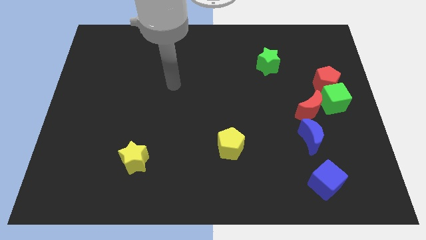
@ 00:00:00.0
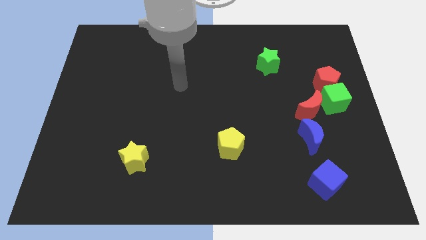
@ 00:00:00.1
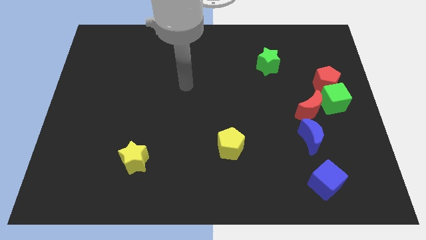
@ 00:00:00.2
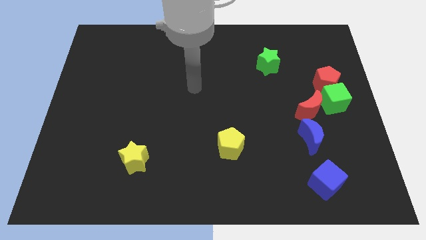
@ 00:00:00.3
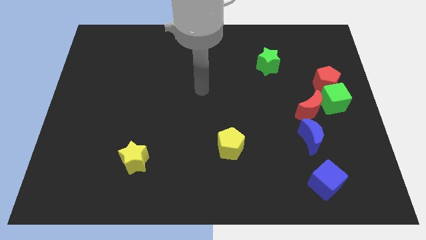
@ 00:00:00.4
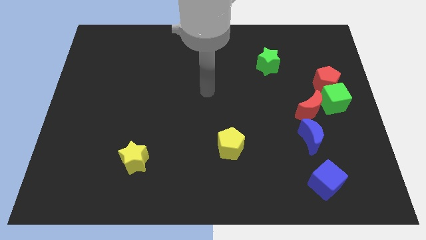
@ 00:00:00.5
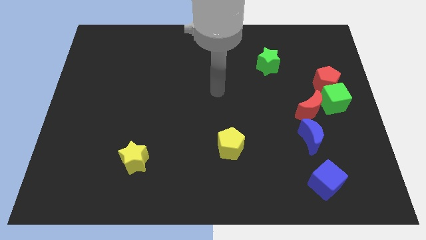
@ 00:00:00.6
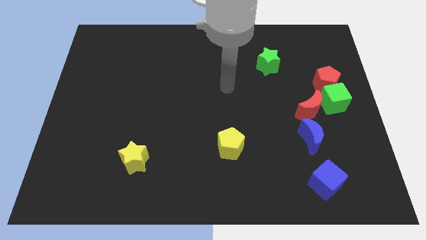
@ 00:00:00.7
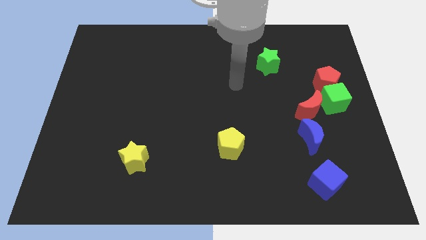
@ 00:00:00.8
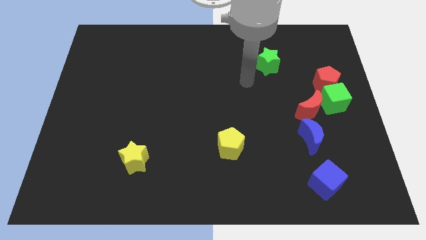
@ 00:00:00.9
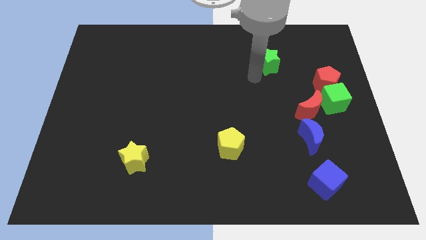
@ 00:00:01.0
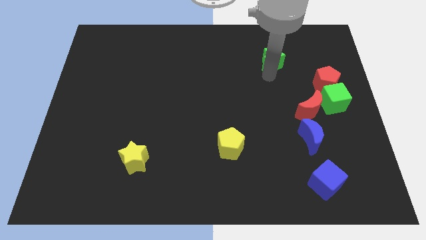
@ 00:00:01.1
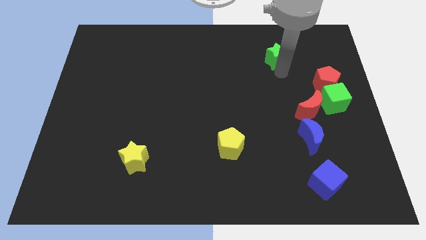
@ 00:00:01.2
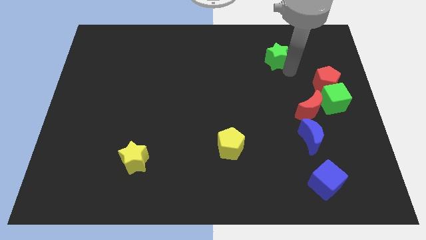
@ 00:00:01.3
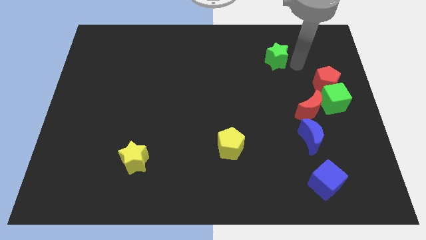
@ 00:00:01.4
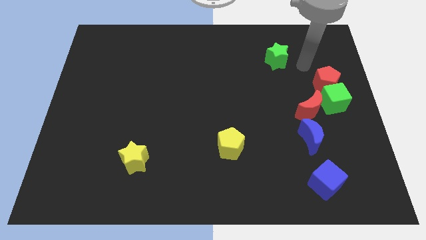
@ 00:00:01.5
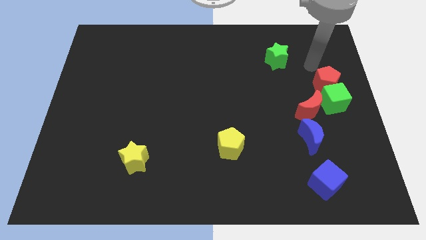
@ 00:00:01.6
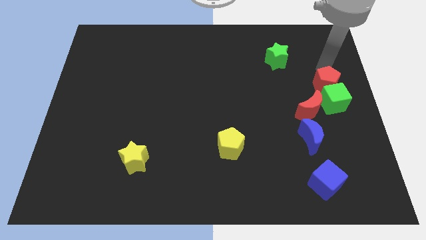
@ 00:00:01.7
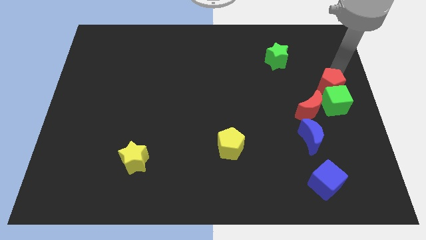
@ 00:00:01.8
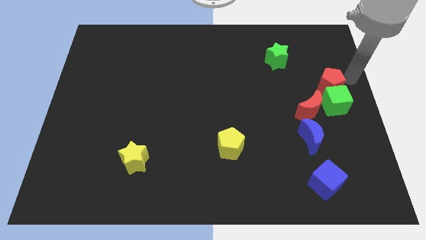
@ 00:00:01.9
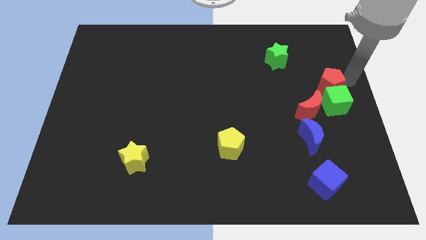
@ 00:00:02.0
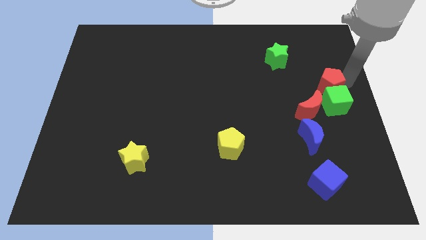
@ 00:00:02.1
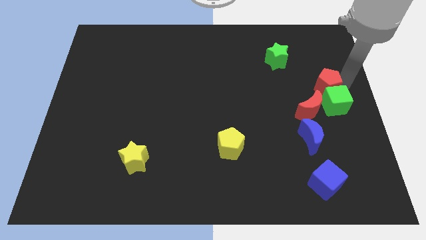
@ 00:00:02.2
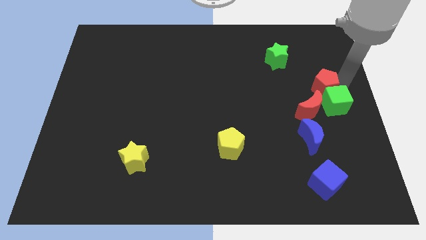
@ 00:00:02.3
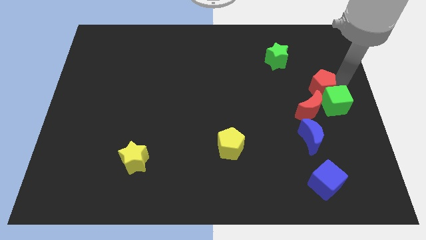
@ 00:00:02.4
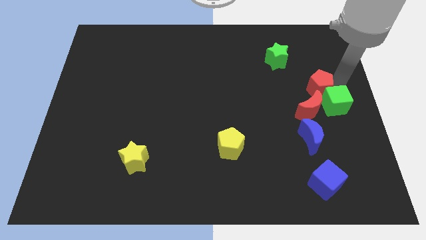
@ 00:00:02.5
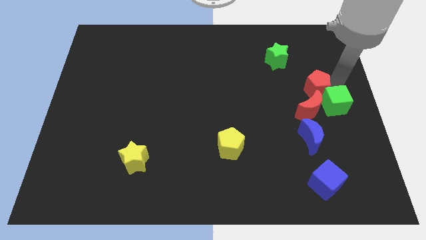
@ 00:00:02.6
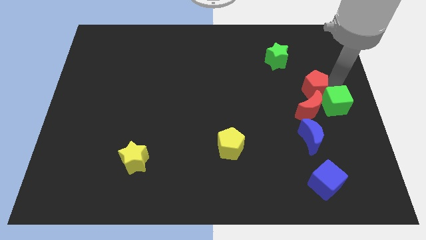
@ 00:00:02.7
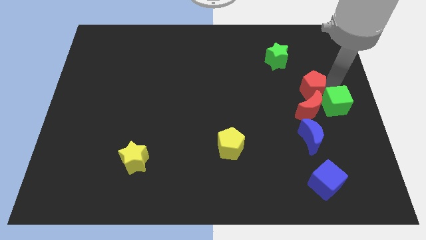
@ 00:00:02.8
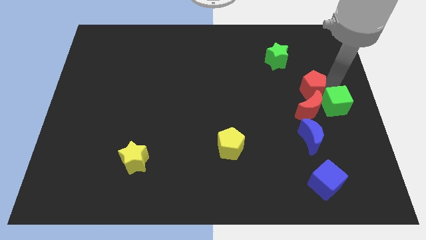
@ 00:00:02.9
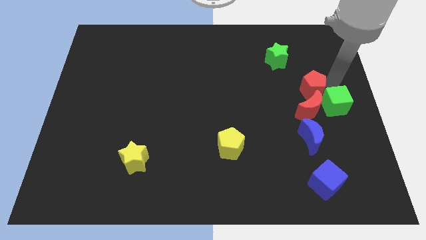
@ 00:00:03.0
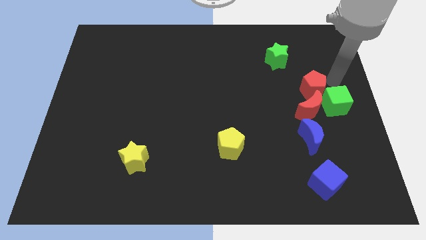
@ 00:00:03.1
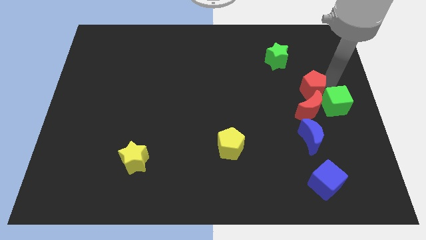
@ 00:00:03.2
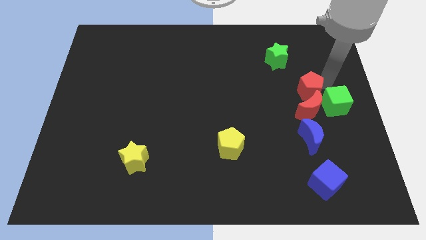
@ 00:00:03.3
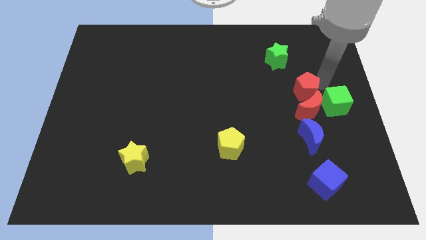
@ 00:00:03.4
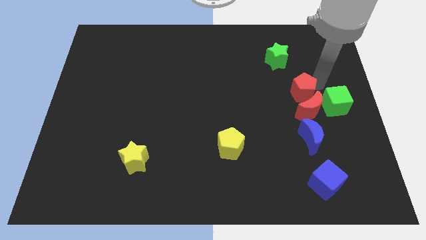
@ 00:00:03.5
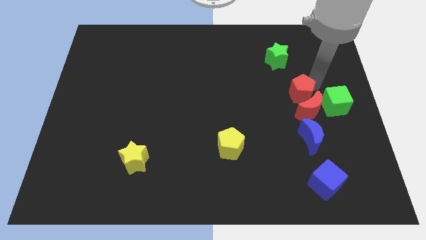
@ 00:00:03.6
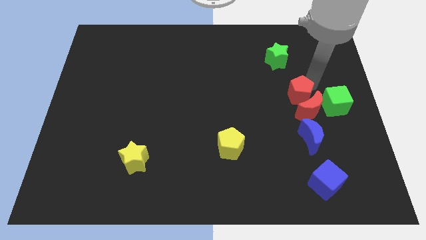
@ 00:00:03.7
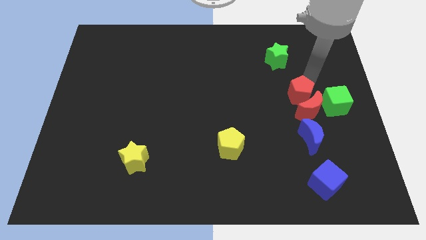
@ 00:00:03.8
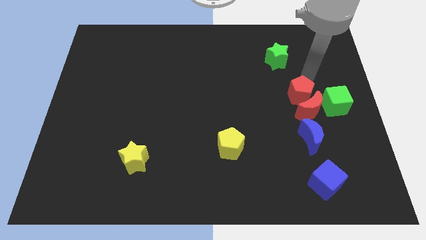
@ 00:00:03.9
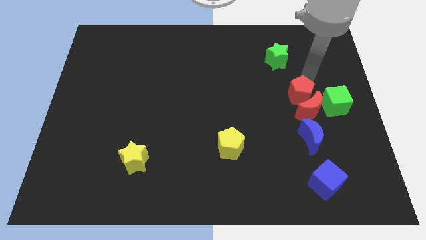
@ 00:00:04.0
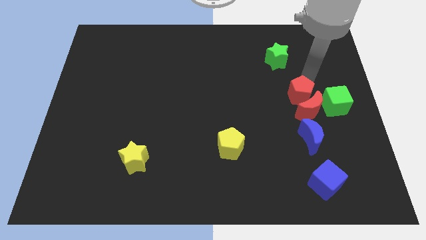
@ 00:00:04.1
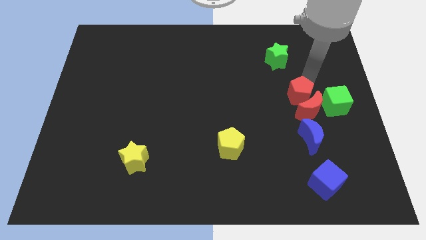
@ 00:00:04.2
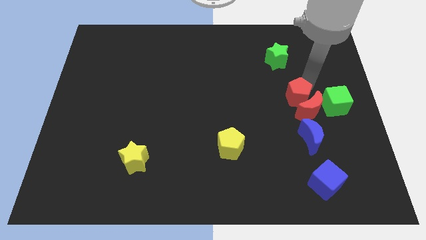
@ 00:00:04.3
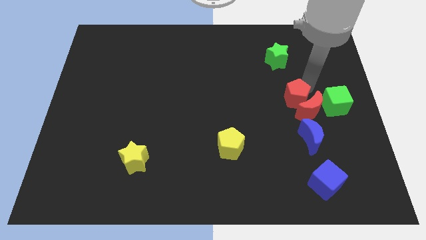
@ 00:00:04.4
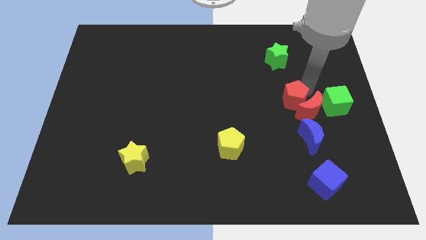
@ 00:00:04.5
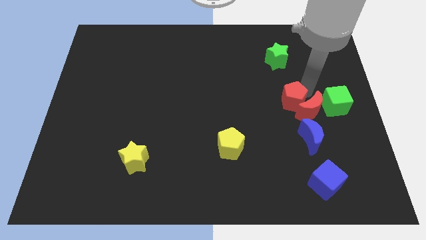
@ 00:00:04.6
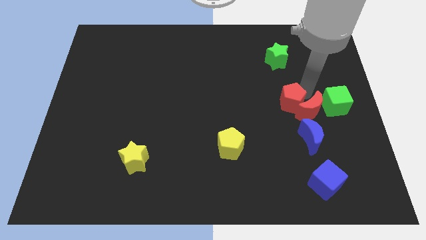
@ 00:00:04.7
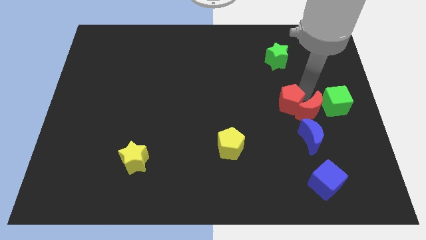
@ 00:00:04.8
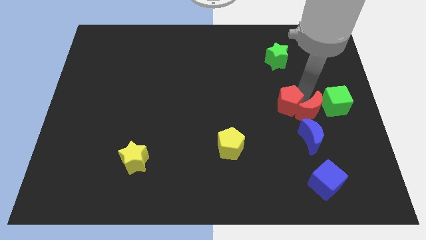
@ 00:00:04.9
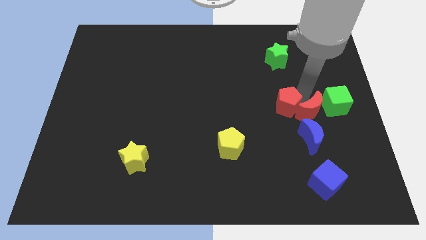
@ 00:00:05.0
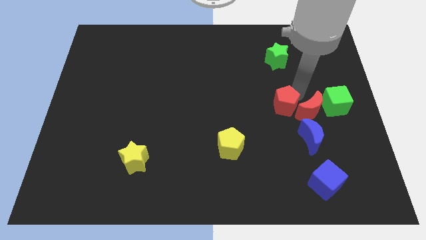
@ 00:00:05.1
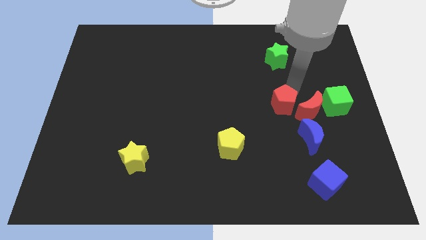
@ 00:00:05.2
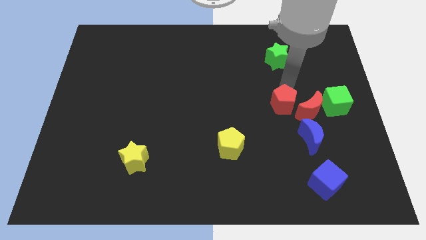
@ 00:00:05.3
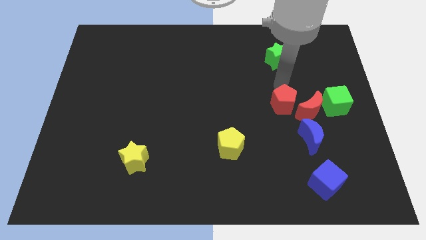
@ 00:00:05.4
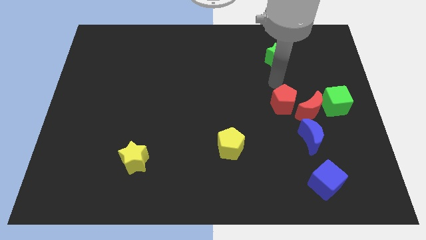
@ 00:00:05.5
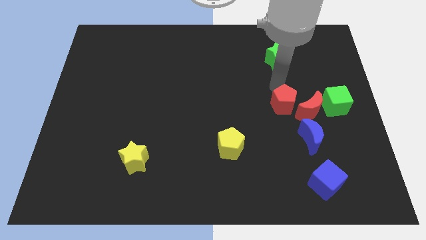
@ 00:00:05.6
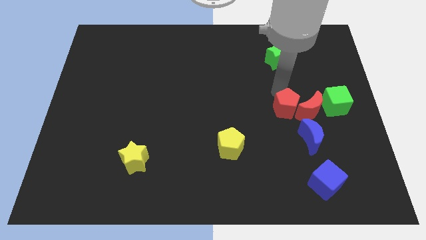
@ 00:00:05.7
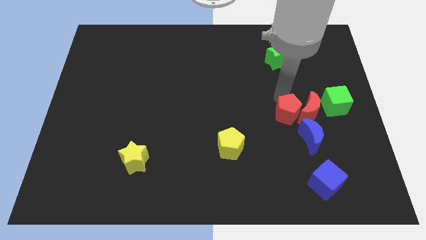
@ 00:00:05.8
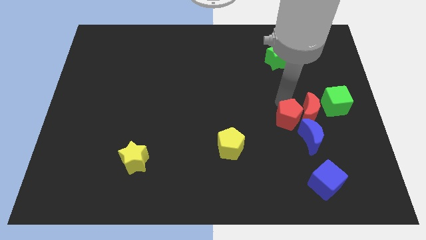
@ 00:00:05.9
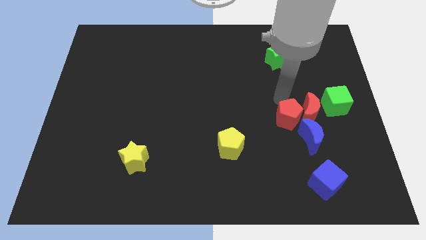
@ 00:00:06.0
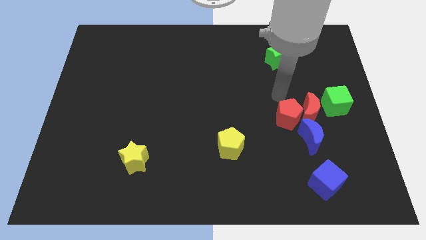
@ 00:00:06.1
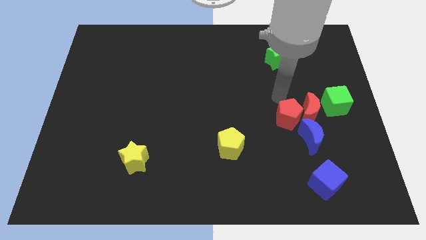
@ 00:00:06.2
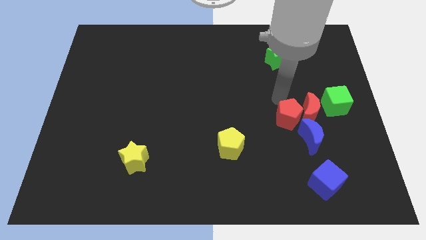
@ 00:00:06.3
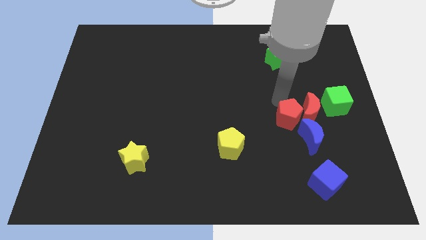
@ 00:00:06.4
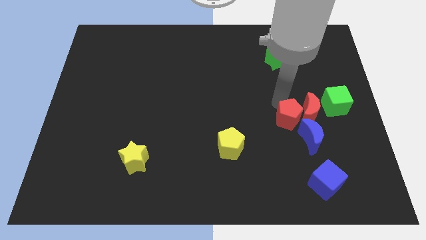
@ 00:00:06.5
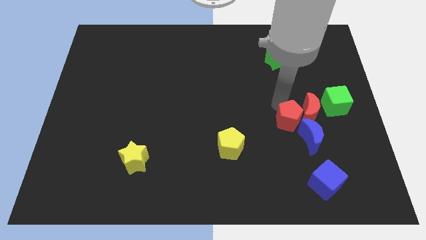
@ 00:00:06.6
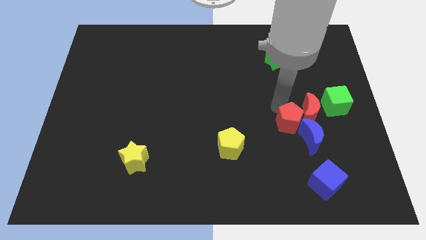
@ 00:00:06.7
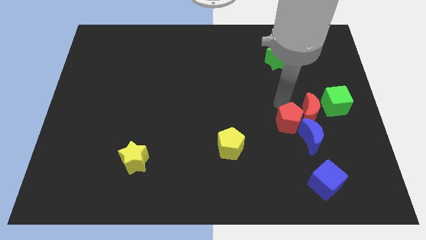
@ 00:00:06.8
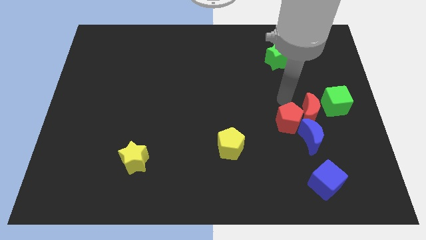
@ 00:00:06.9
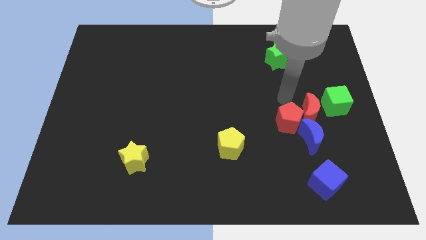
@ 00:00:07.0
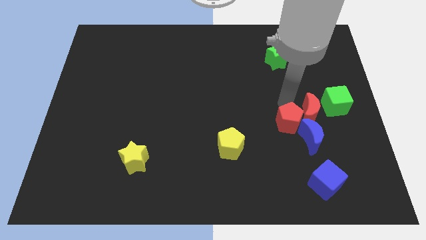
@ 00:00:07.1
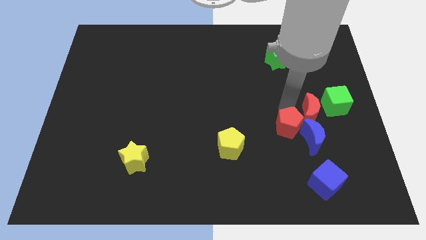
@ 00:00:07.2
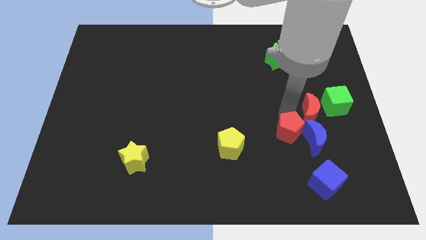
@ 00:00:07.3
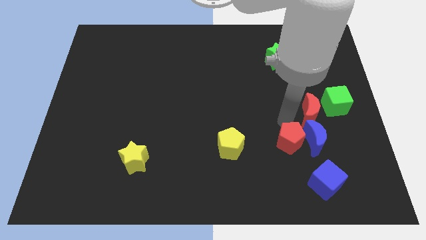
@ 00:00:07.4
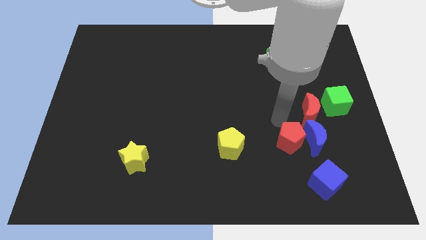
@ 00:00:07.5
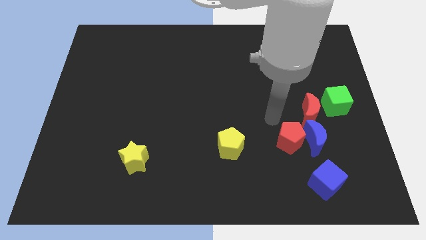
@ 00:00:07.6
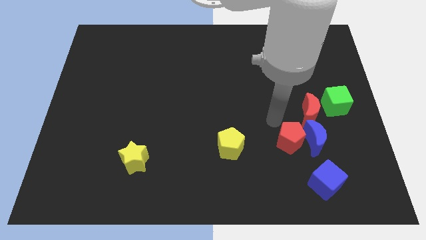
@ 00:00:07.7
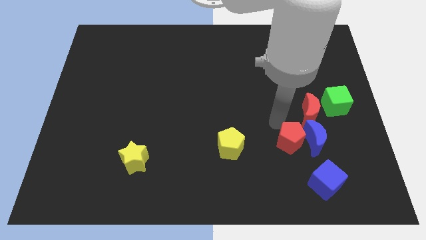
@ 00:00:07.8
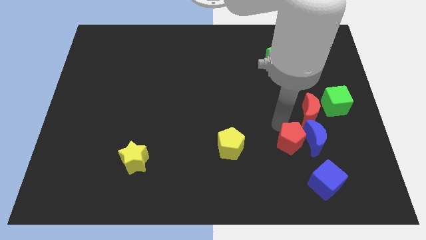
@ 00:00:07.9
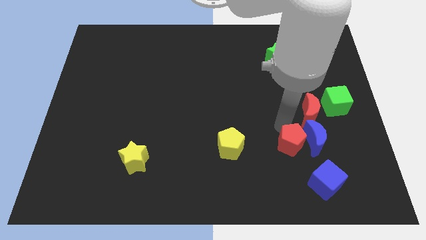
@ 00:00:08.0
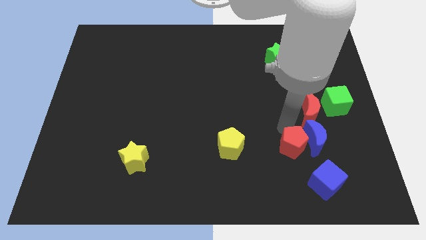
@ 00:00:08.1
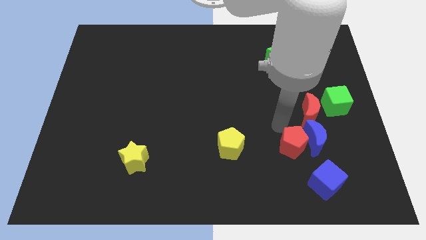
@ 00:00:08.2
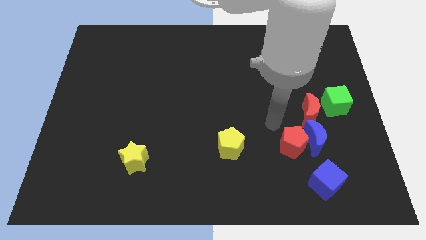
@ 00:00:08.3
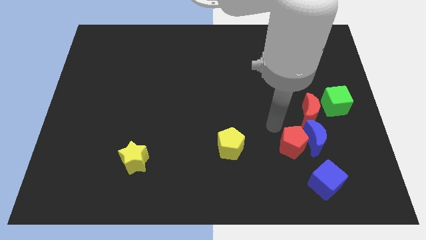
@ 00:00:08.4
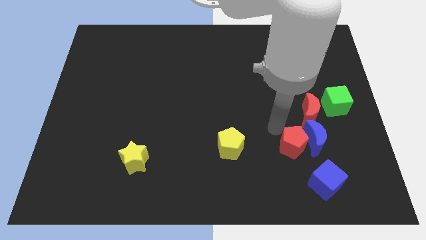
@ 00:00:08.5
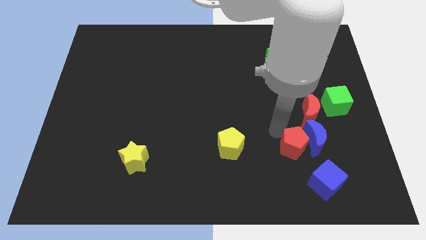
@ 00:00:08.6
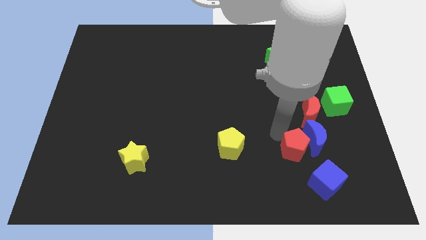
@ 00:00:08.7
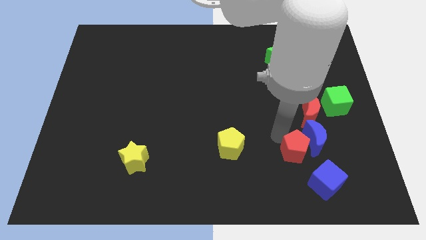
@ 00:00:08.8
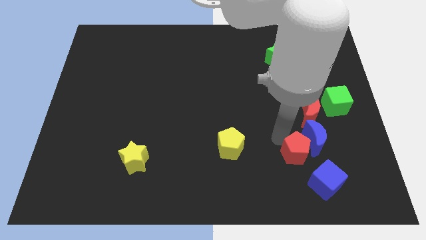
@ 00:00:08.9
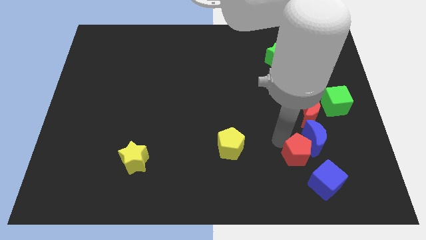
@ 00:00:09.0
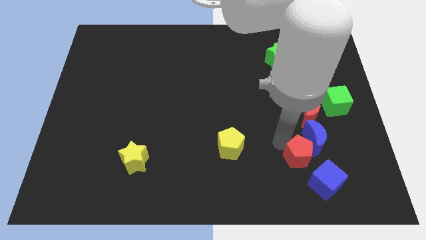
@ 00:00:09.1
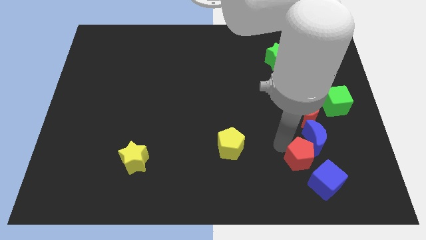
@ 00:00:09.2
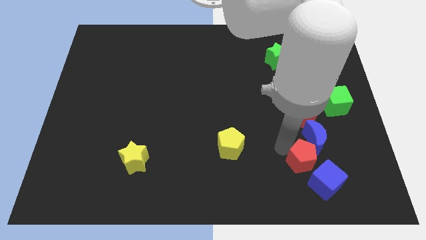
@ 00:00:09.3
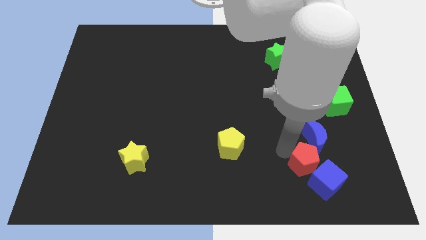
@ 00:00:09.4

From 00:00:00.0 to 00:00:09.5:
move the red pentagon towards the blue cube
